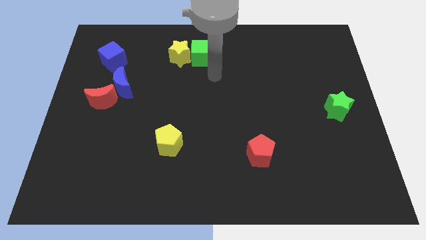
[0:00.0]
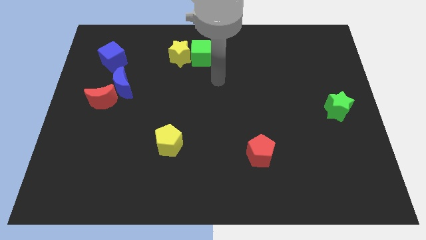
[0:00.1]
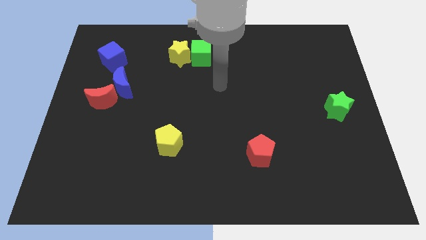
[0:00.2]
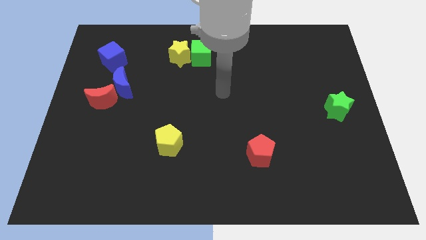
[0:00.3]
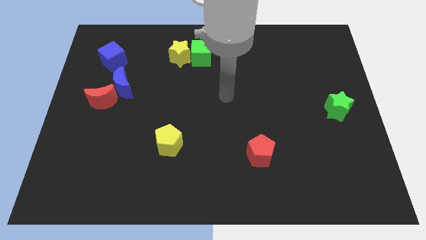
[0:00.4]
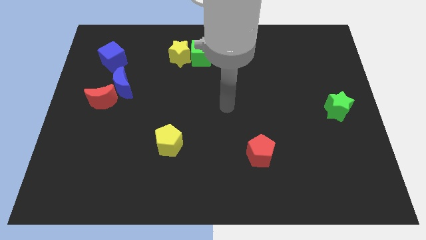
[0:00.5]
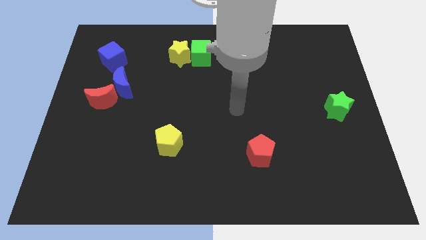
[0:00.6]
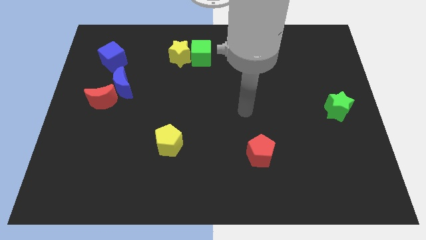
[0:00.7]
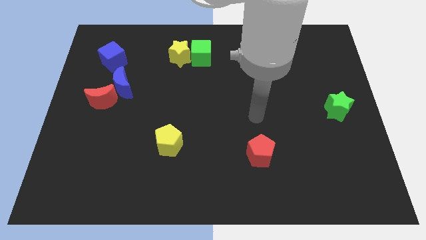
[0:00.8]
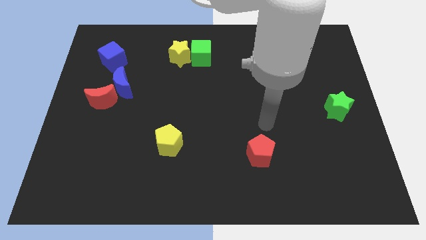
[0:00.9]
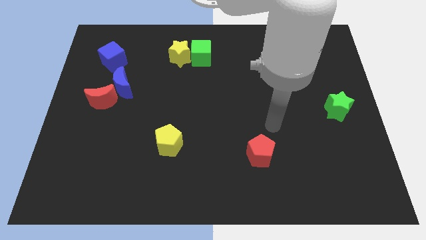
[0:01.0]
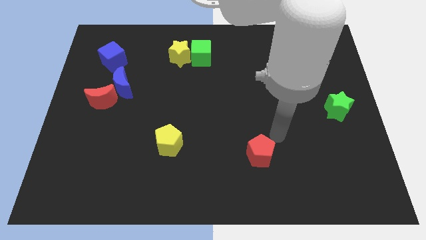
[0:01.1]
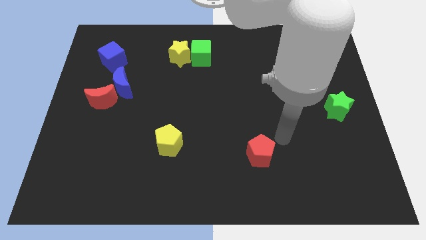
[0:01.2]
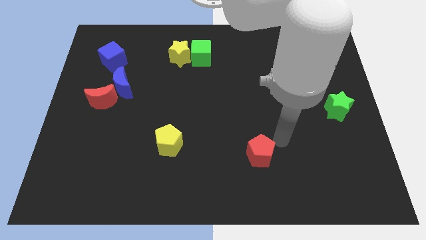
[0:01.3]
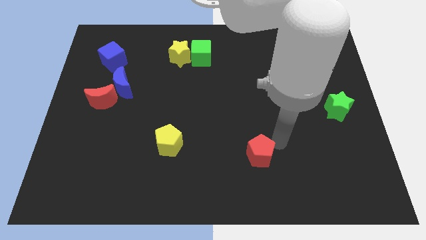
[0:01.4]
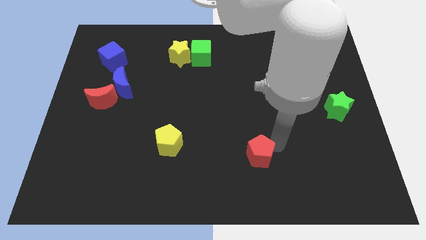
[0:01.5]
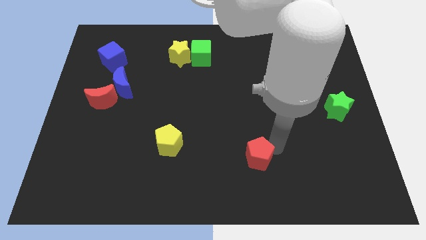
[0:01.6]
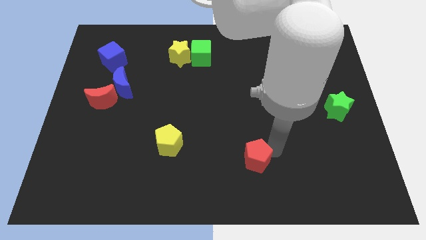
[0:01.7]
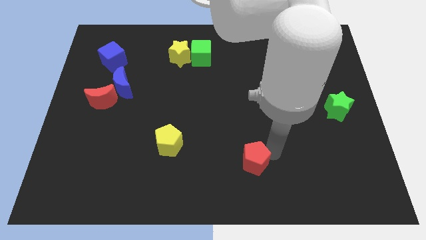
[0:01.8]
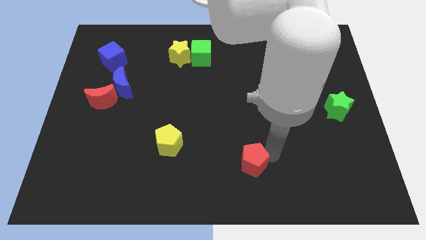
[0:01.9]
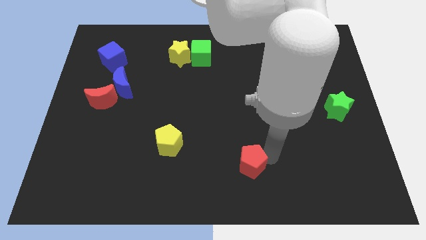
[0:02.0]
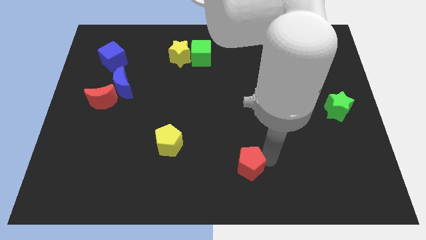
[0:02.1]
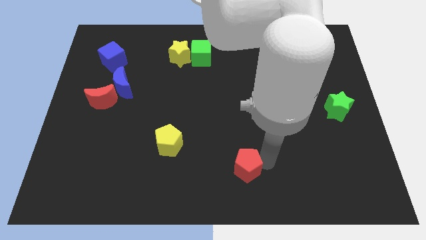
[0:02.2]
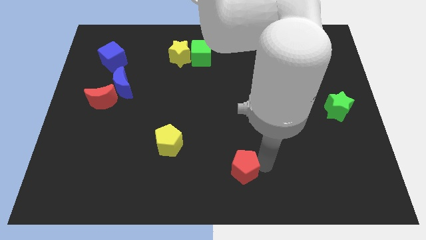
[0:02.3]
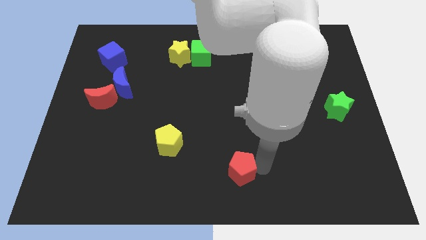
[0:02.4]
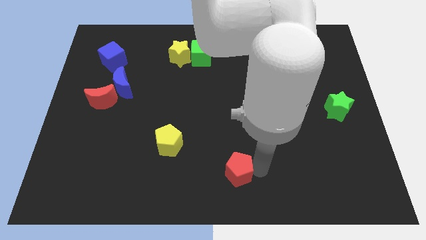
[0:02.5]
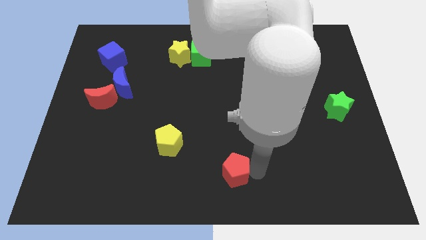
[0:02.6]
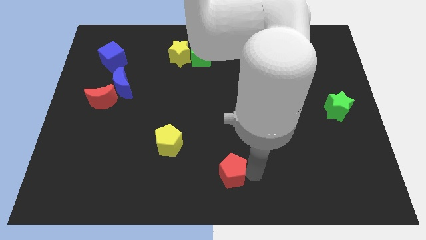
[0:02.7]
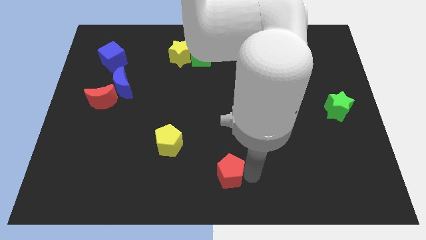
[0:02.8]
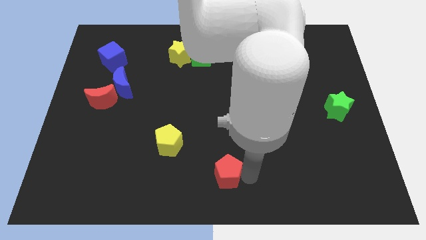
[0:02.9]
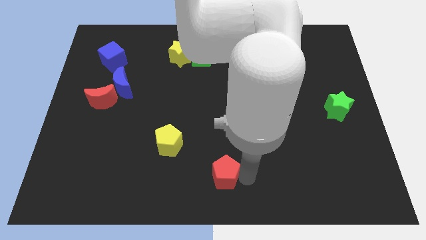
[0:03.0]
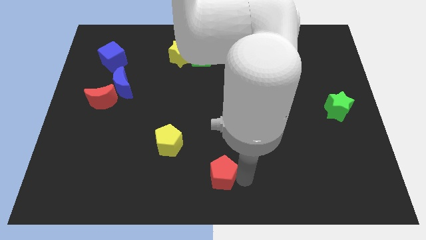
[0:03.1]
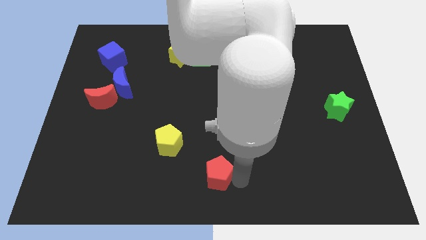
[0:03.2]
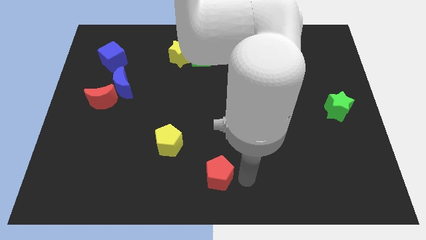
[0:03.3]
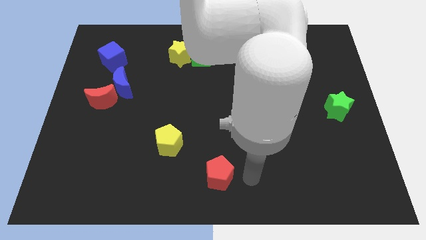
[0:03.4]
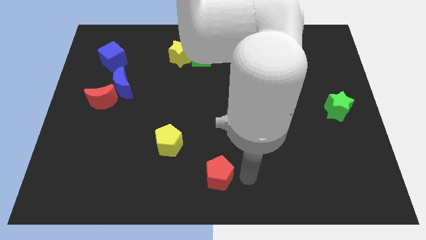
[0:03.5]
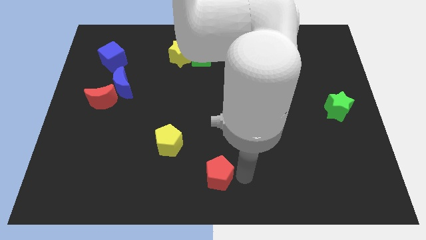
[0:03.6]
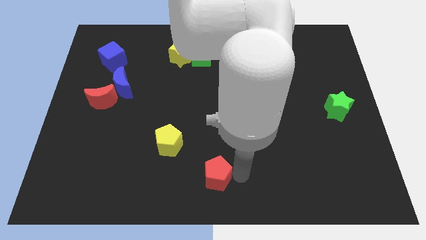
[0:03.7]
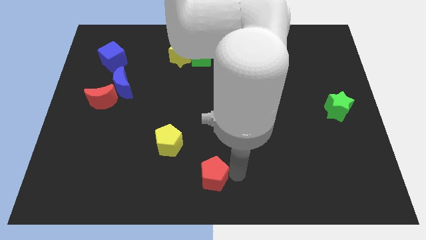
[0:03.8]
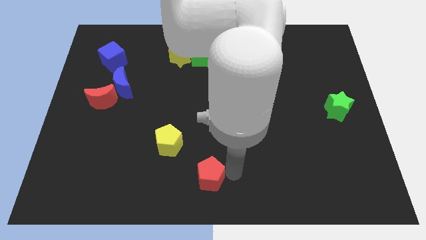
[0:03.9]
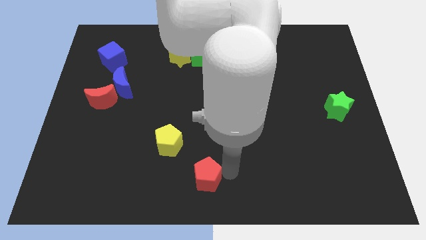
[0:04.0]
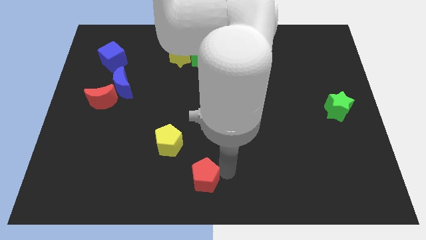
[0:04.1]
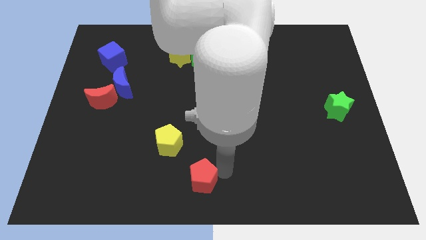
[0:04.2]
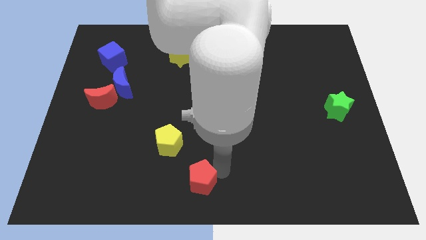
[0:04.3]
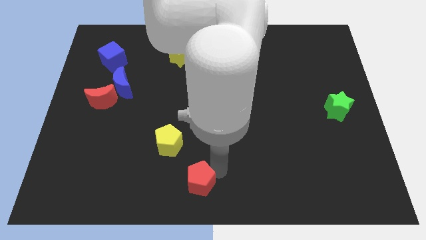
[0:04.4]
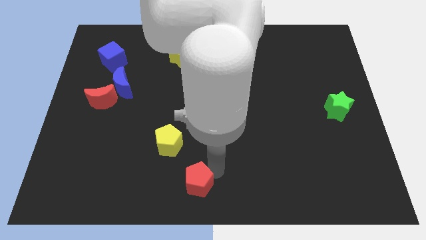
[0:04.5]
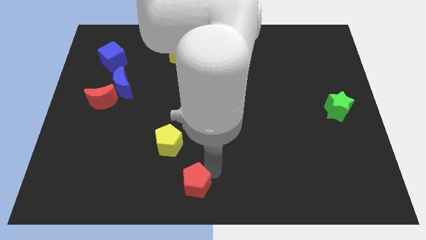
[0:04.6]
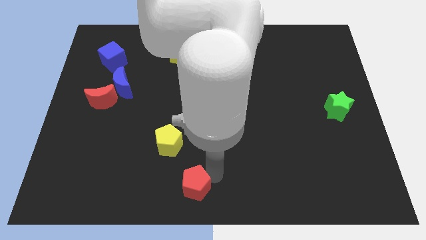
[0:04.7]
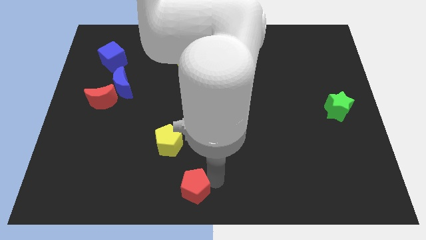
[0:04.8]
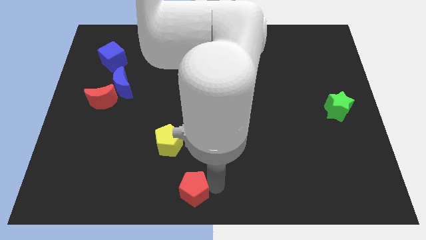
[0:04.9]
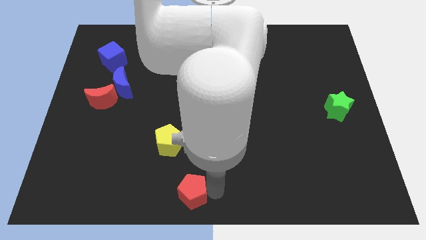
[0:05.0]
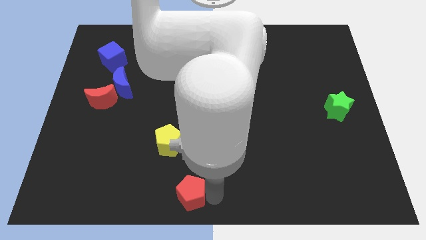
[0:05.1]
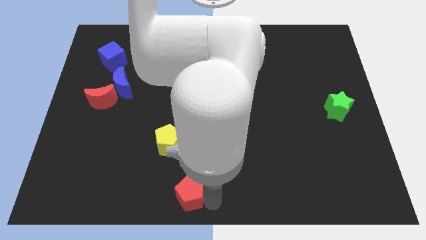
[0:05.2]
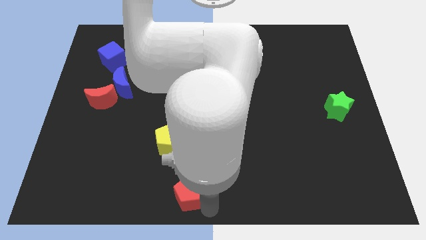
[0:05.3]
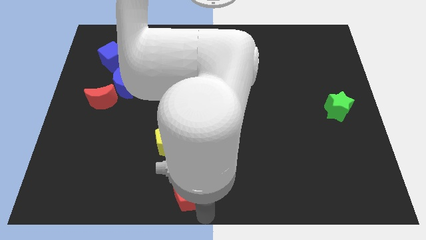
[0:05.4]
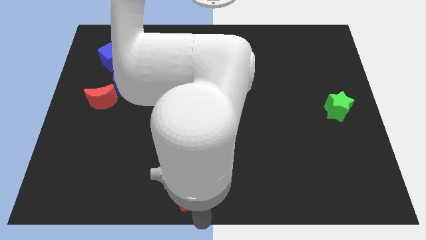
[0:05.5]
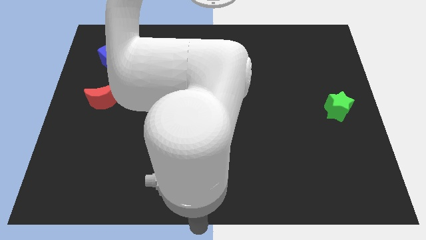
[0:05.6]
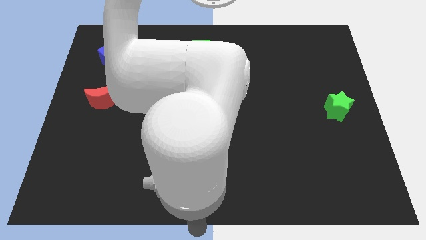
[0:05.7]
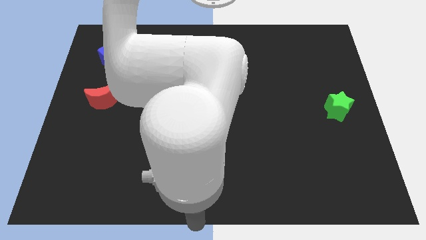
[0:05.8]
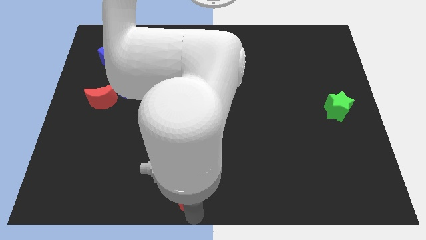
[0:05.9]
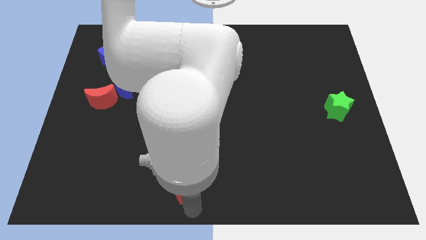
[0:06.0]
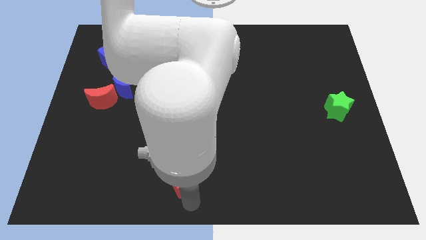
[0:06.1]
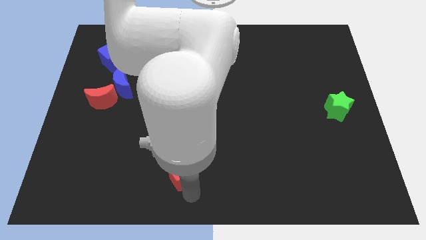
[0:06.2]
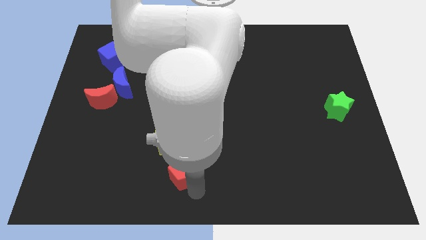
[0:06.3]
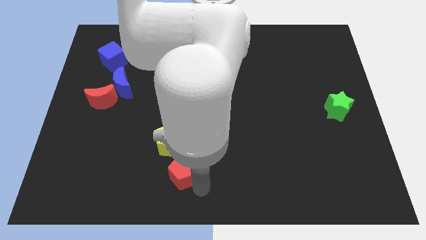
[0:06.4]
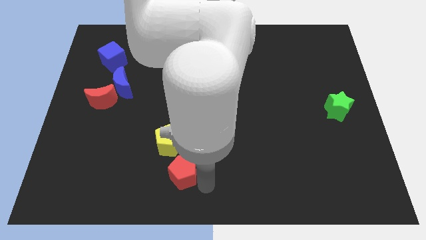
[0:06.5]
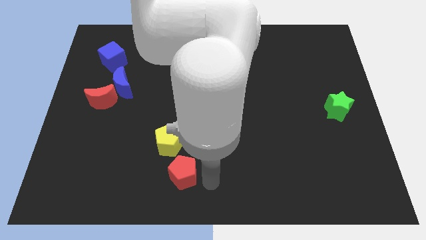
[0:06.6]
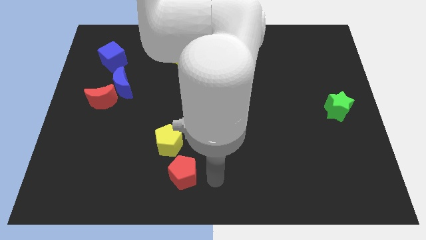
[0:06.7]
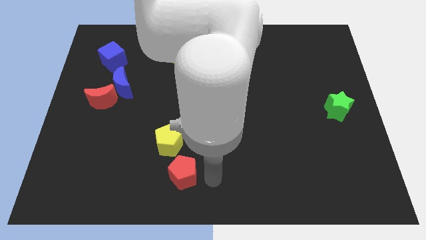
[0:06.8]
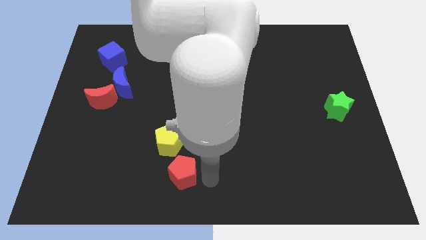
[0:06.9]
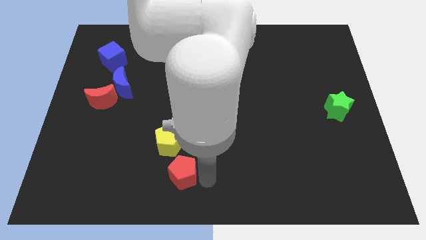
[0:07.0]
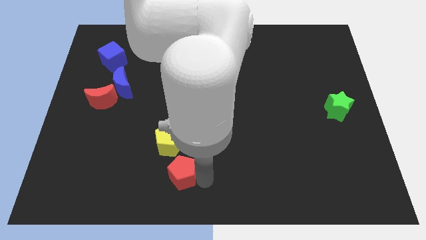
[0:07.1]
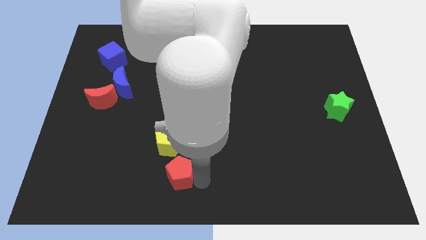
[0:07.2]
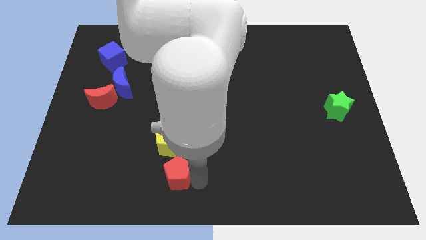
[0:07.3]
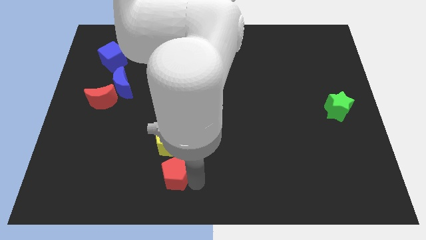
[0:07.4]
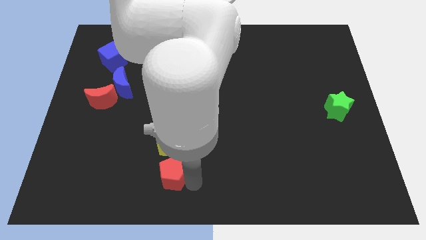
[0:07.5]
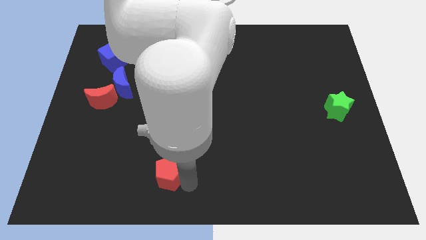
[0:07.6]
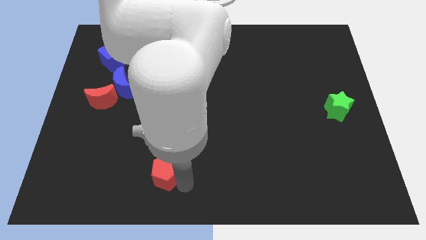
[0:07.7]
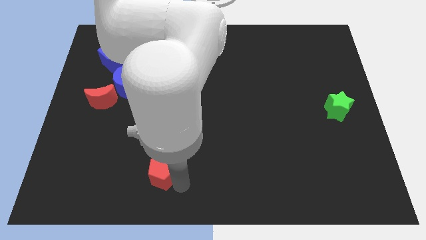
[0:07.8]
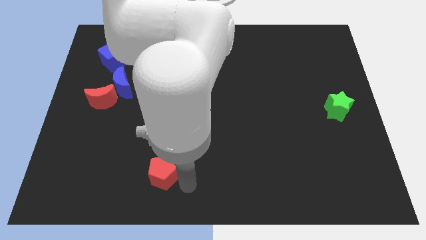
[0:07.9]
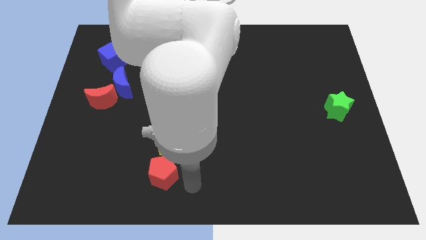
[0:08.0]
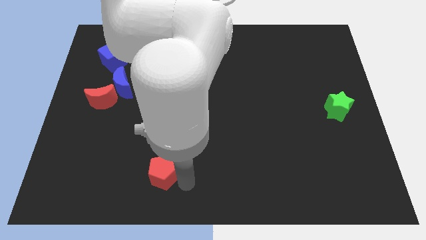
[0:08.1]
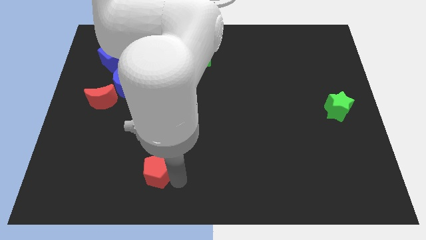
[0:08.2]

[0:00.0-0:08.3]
slide the red pentagon to the left
